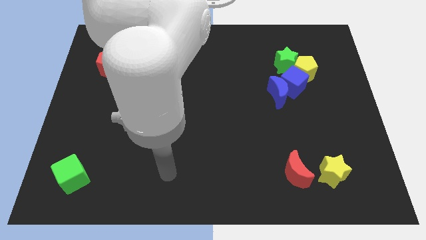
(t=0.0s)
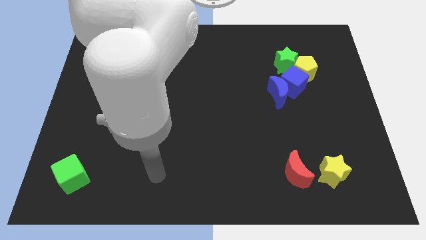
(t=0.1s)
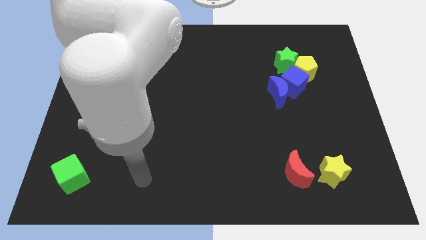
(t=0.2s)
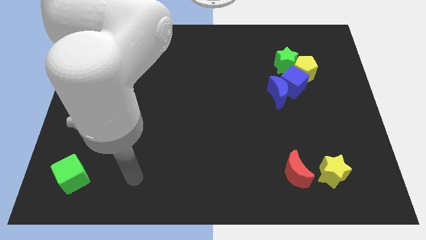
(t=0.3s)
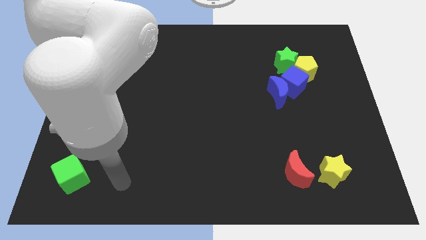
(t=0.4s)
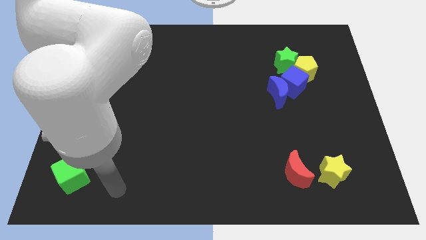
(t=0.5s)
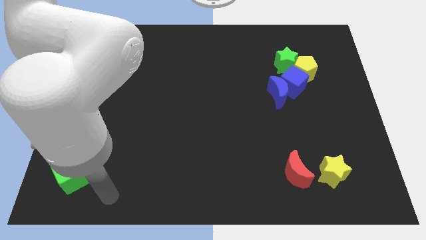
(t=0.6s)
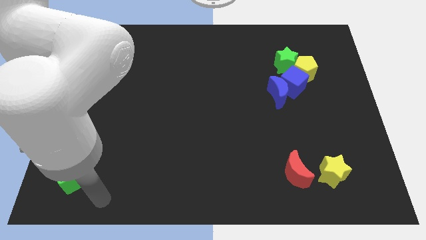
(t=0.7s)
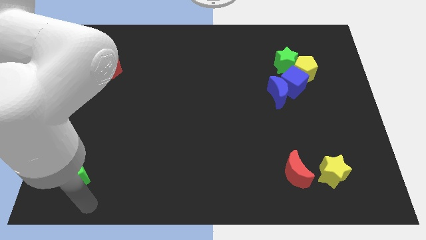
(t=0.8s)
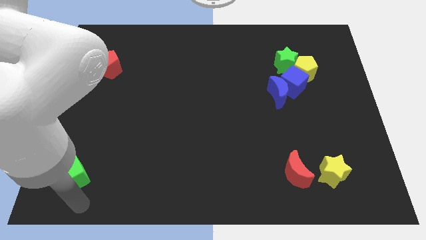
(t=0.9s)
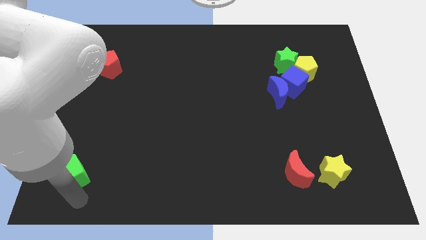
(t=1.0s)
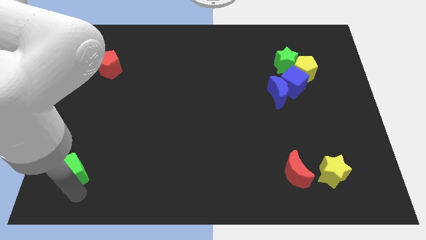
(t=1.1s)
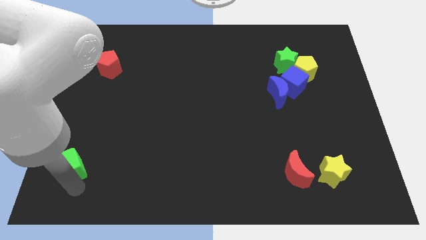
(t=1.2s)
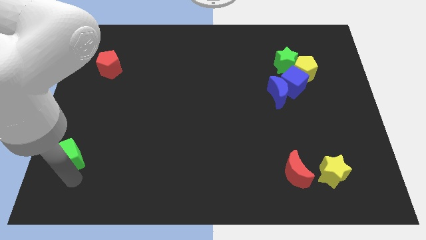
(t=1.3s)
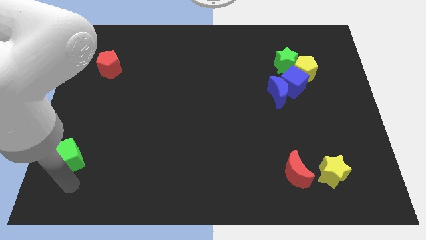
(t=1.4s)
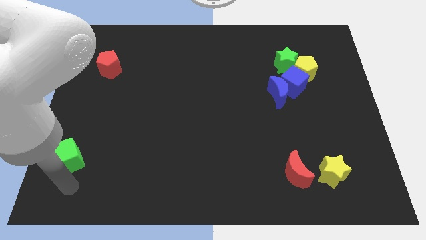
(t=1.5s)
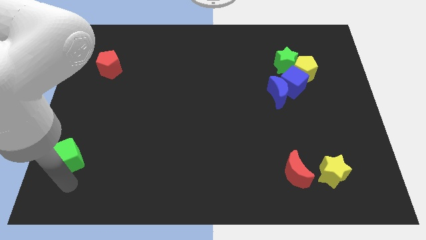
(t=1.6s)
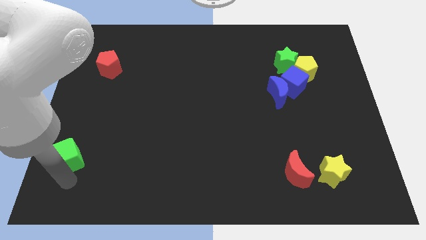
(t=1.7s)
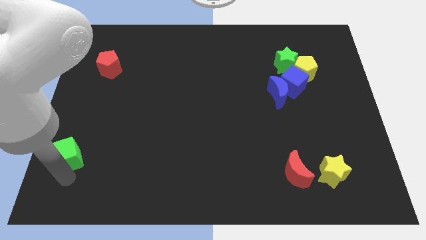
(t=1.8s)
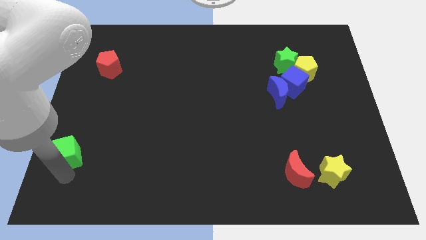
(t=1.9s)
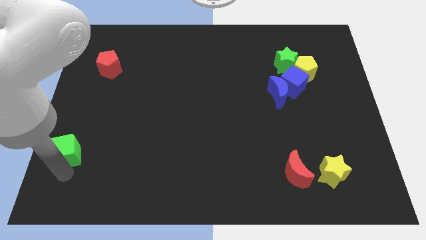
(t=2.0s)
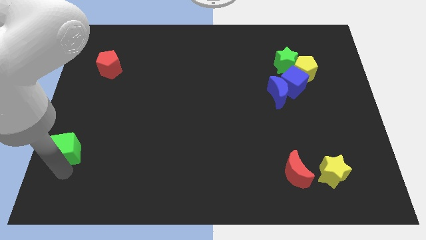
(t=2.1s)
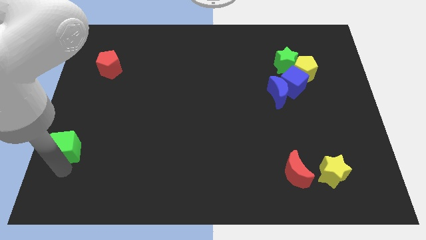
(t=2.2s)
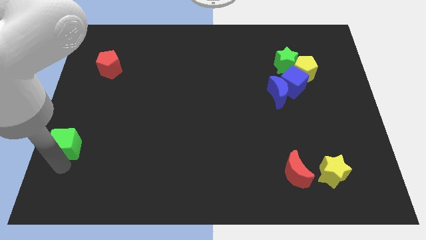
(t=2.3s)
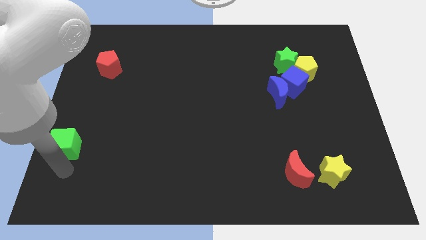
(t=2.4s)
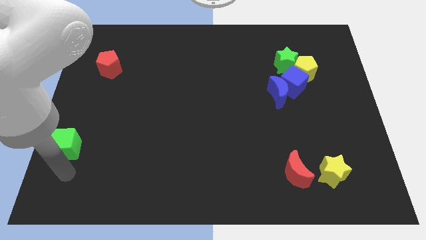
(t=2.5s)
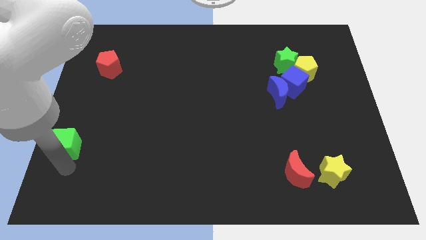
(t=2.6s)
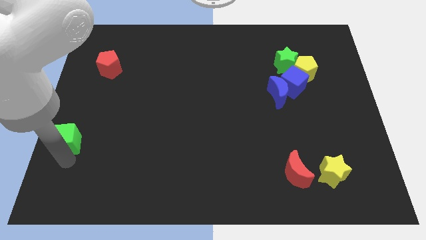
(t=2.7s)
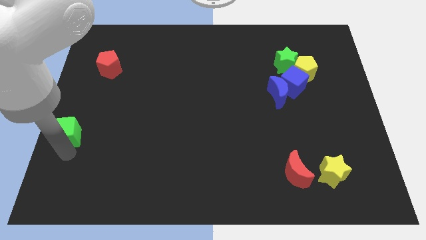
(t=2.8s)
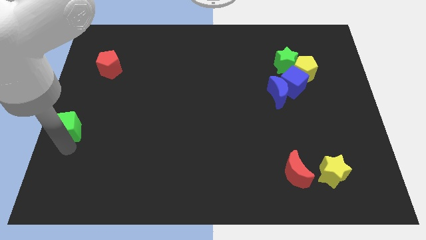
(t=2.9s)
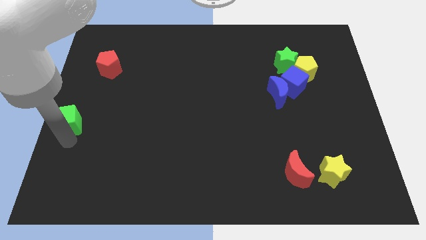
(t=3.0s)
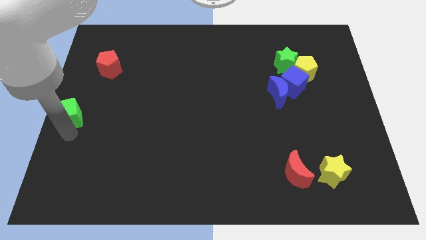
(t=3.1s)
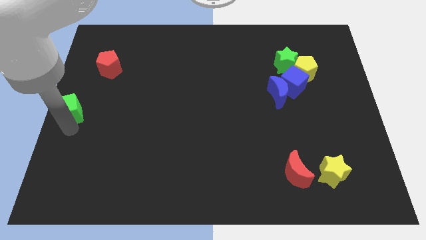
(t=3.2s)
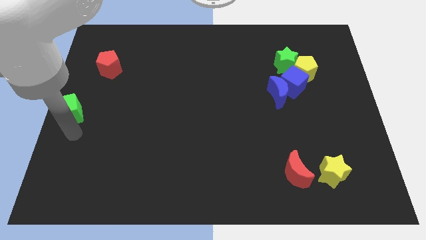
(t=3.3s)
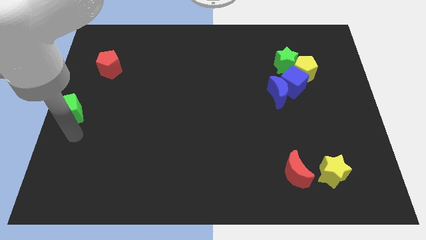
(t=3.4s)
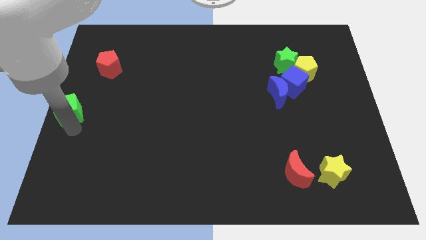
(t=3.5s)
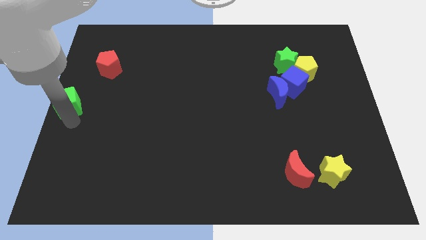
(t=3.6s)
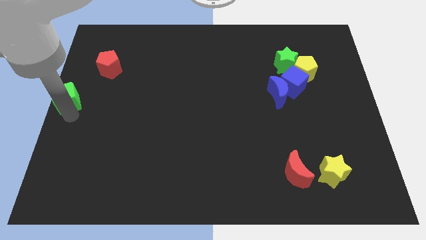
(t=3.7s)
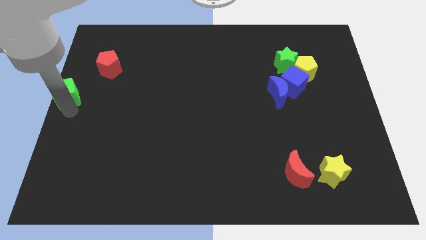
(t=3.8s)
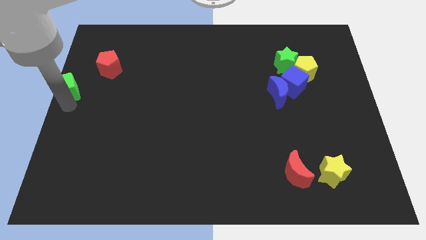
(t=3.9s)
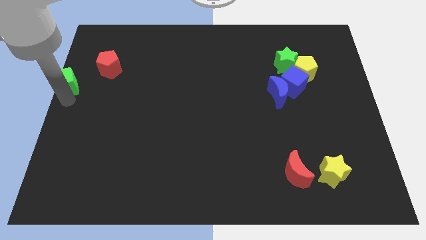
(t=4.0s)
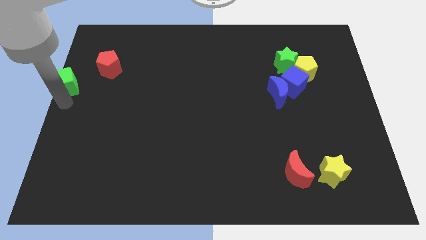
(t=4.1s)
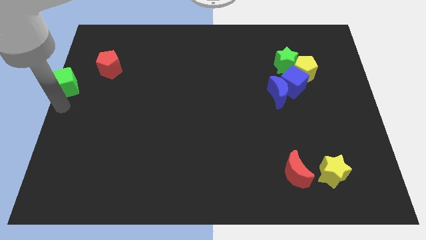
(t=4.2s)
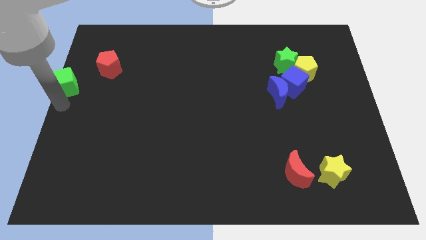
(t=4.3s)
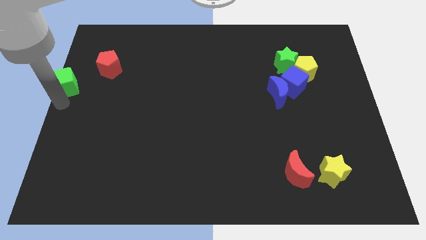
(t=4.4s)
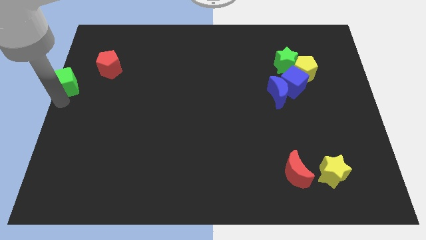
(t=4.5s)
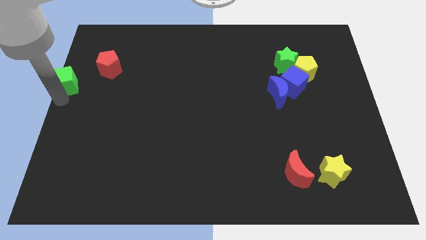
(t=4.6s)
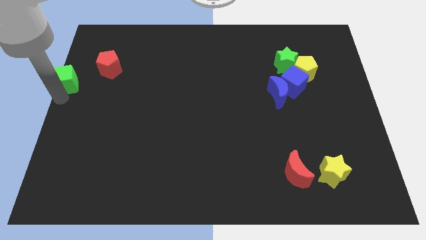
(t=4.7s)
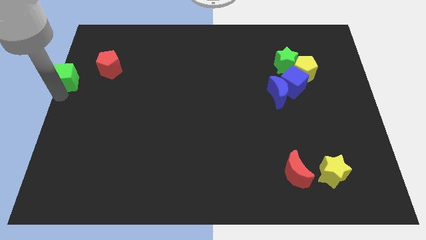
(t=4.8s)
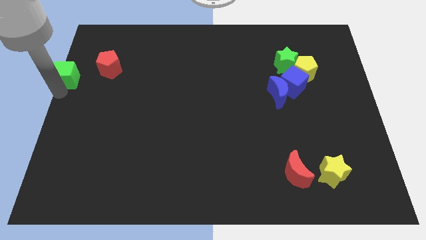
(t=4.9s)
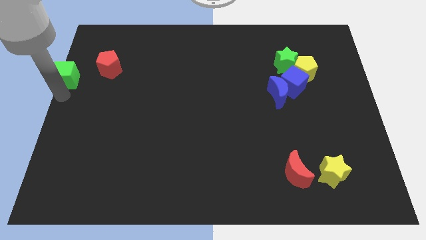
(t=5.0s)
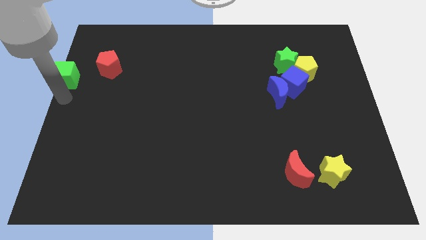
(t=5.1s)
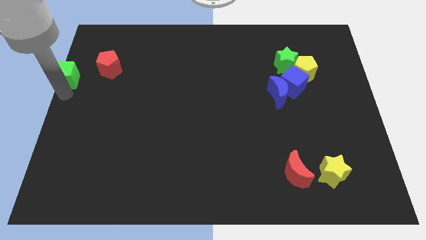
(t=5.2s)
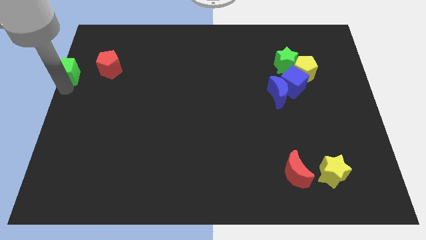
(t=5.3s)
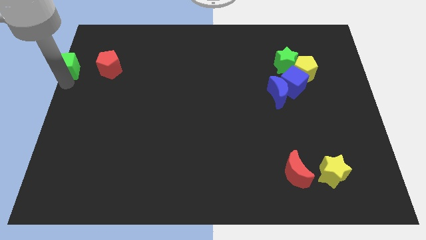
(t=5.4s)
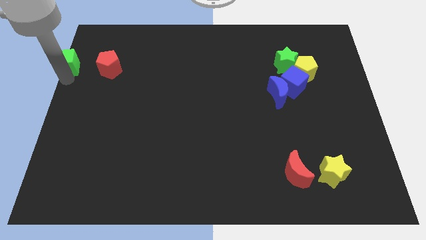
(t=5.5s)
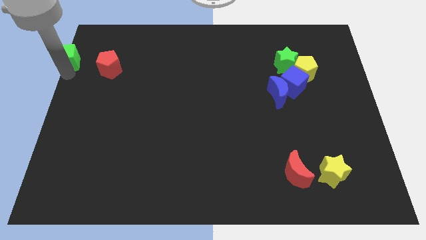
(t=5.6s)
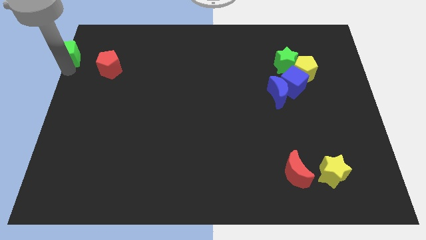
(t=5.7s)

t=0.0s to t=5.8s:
slide the green cube to the top left
